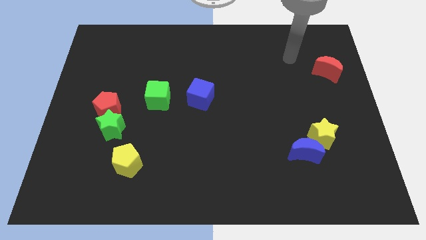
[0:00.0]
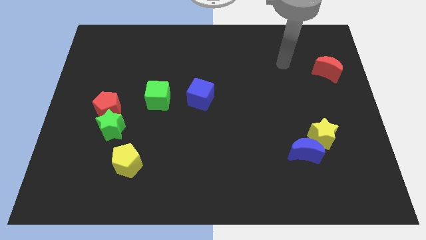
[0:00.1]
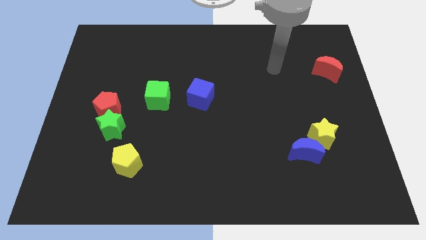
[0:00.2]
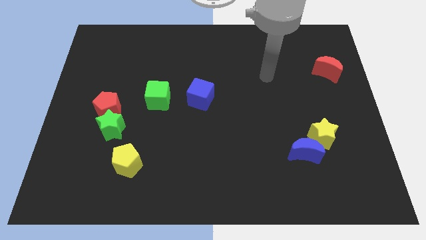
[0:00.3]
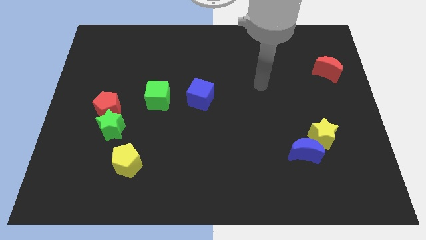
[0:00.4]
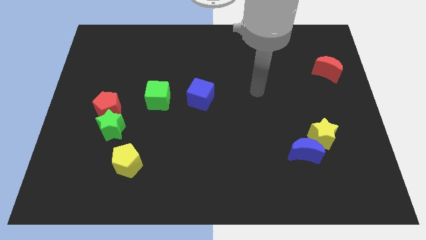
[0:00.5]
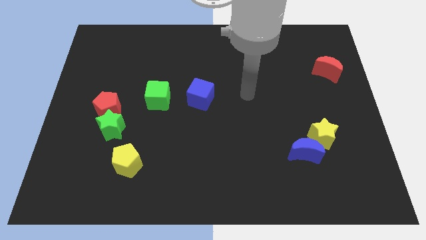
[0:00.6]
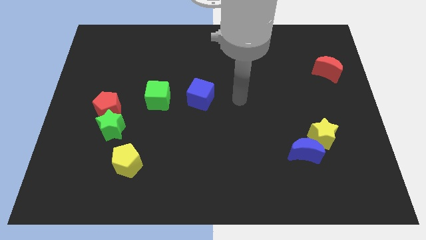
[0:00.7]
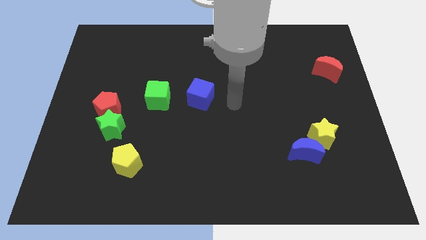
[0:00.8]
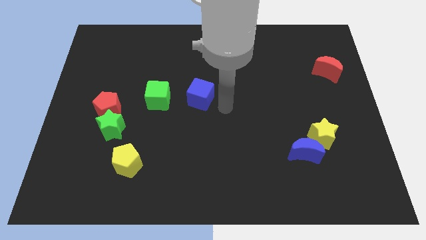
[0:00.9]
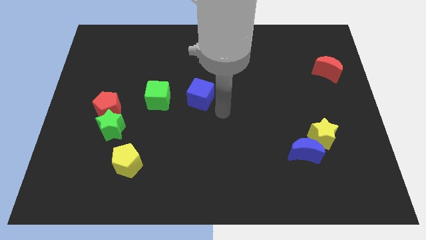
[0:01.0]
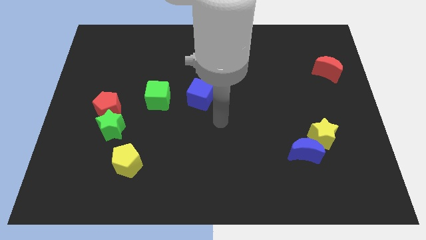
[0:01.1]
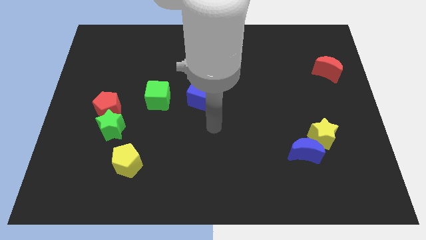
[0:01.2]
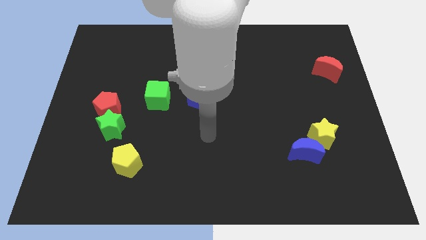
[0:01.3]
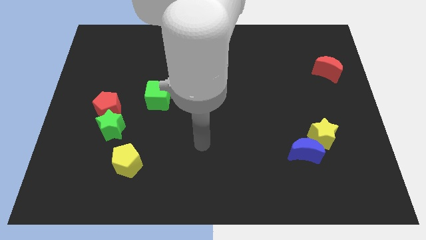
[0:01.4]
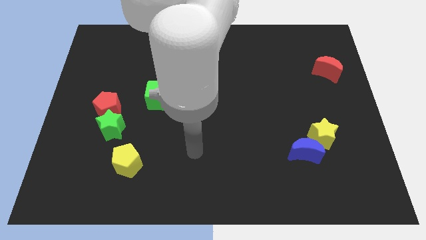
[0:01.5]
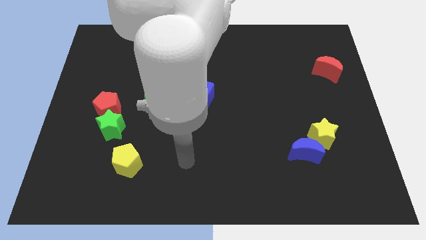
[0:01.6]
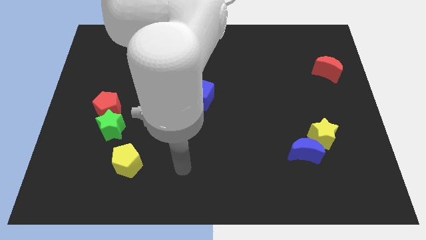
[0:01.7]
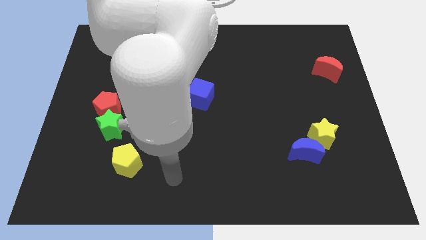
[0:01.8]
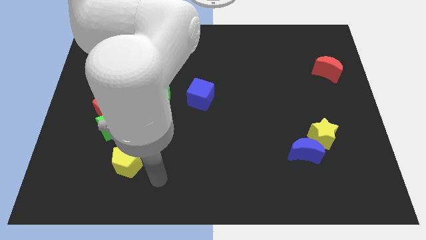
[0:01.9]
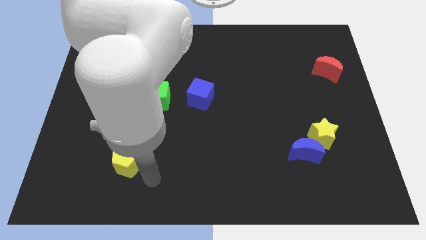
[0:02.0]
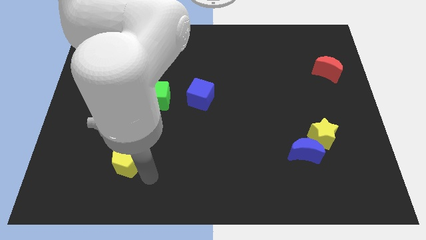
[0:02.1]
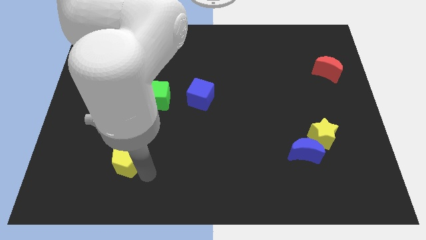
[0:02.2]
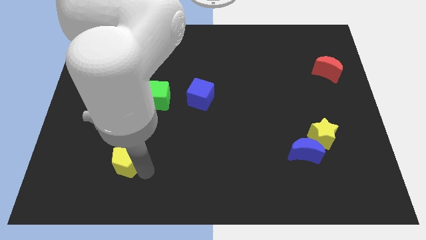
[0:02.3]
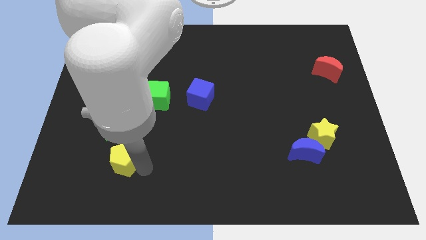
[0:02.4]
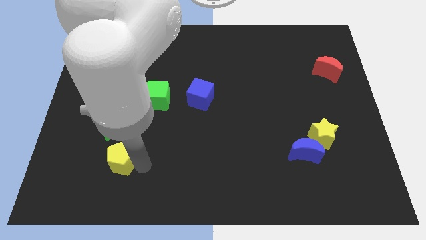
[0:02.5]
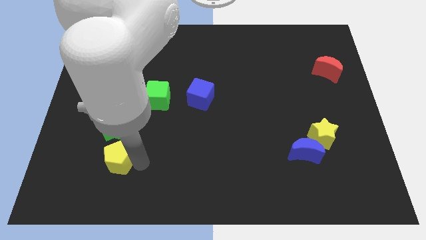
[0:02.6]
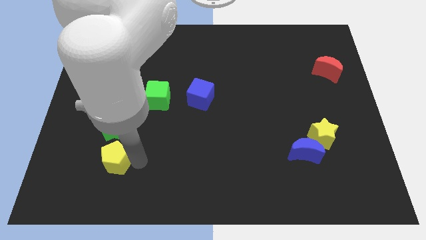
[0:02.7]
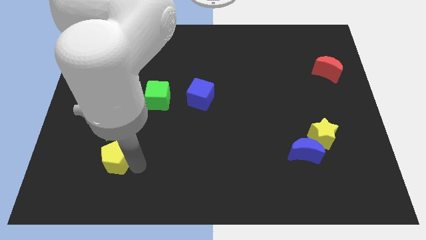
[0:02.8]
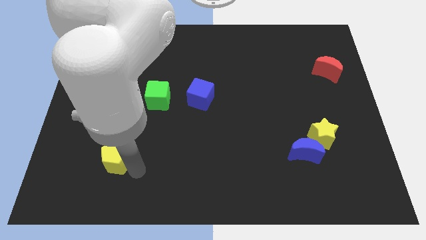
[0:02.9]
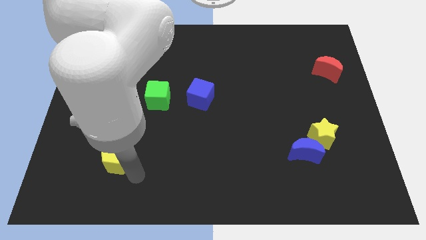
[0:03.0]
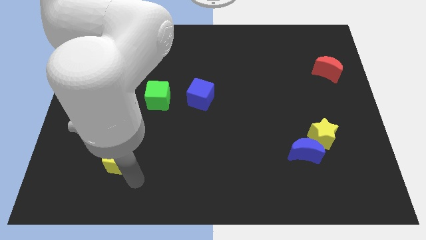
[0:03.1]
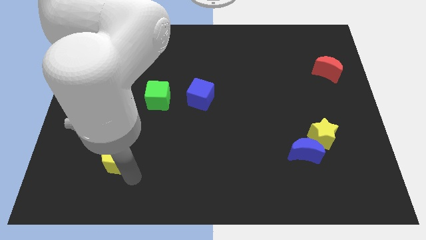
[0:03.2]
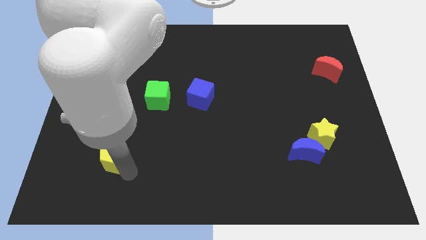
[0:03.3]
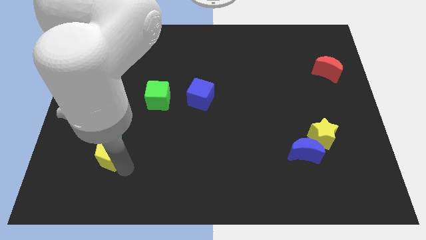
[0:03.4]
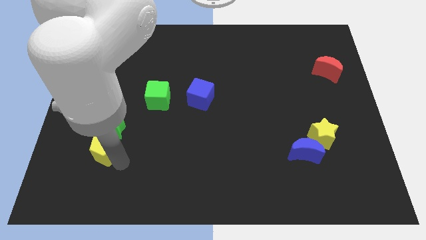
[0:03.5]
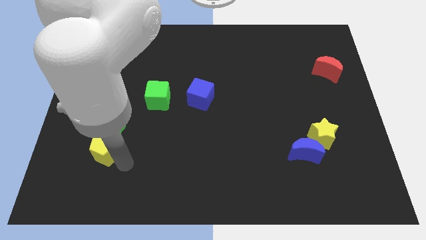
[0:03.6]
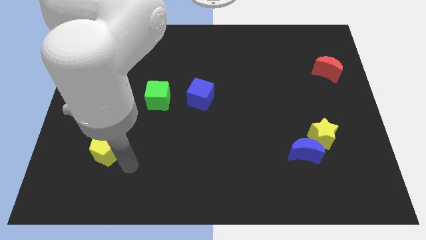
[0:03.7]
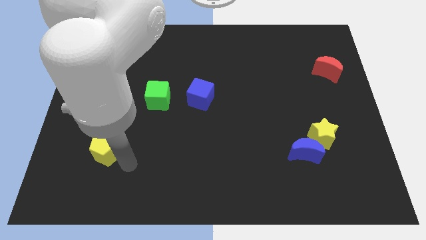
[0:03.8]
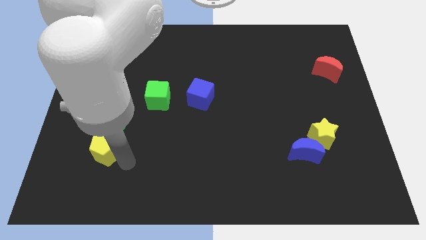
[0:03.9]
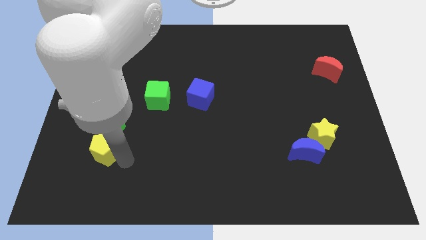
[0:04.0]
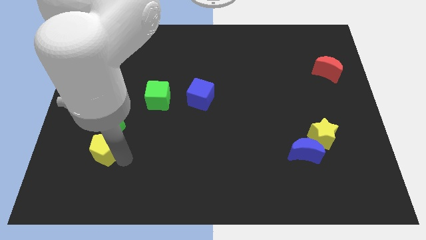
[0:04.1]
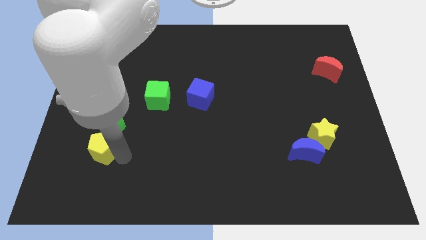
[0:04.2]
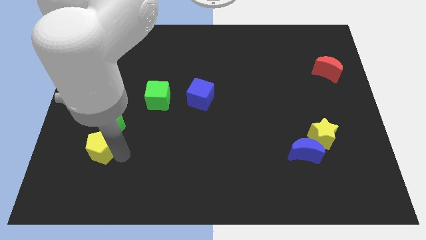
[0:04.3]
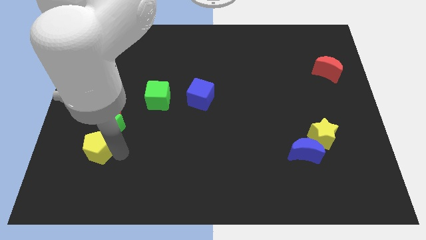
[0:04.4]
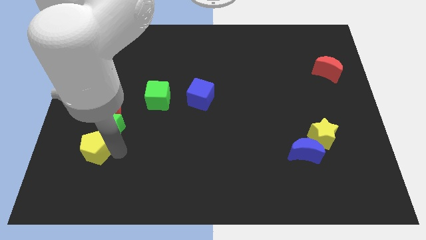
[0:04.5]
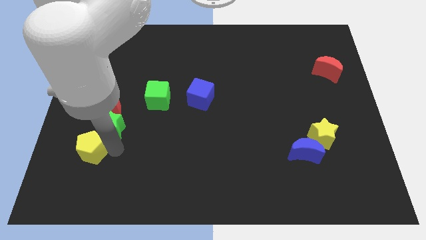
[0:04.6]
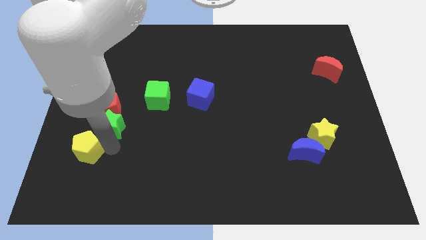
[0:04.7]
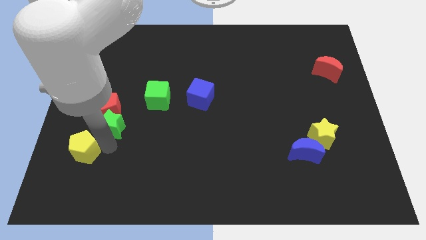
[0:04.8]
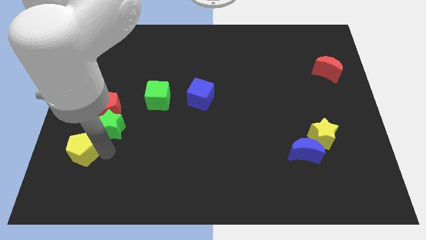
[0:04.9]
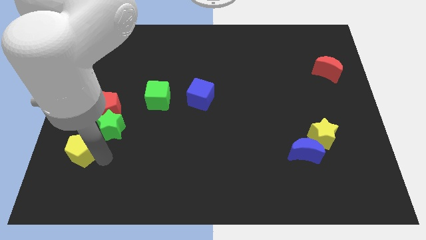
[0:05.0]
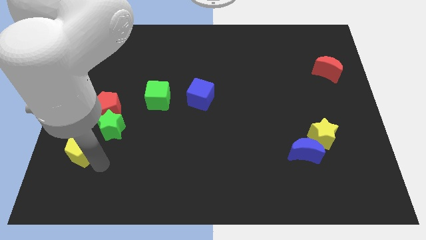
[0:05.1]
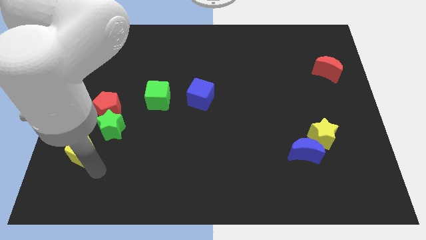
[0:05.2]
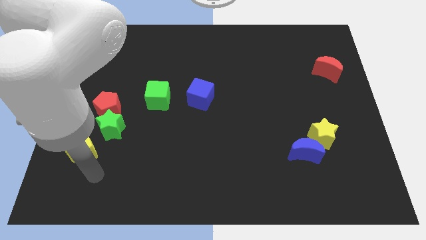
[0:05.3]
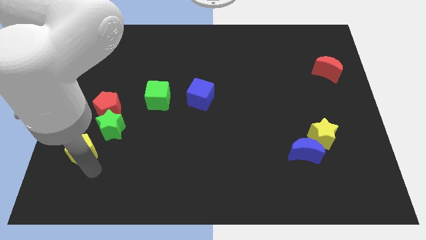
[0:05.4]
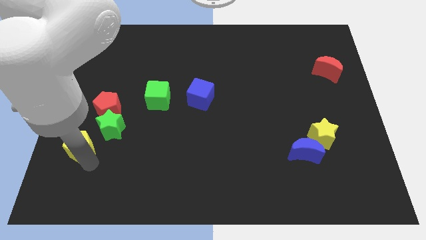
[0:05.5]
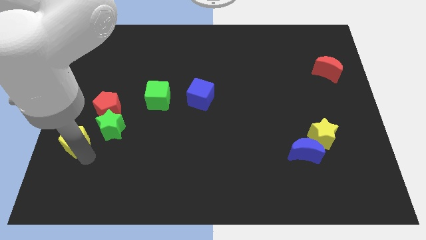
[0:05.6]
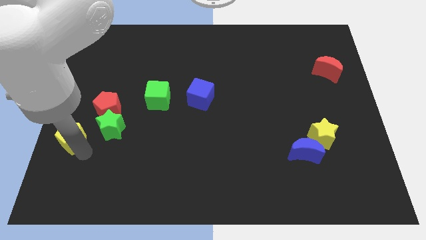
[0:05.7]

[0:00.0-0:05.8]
move the yellow pentagon to the left side of the board

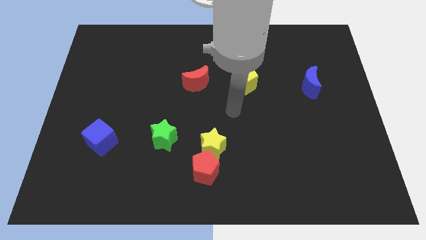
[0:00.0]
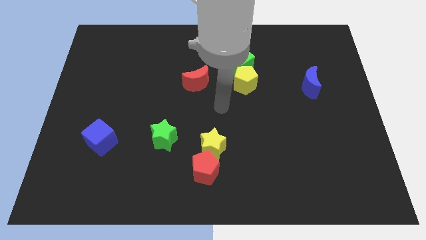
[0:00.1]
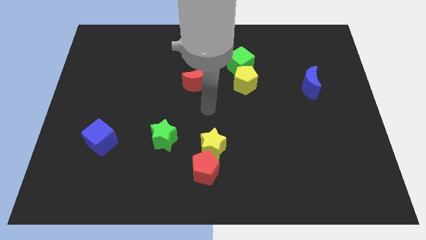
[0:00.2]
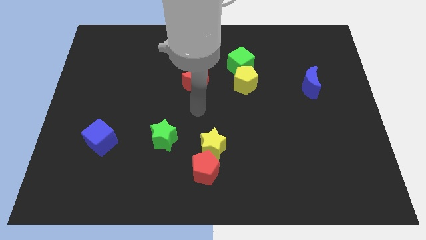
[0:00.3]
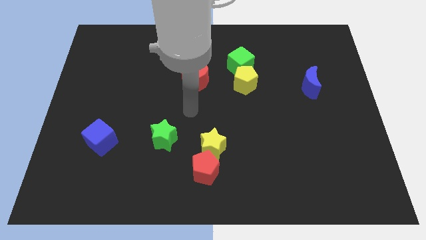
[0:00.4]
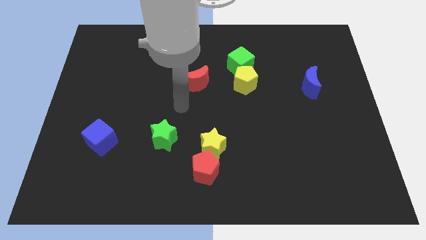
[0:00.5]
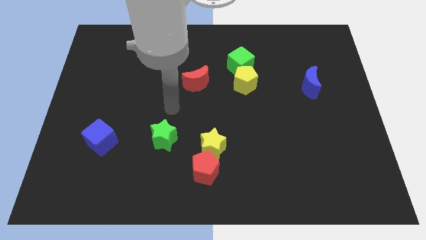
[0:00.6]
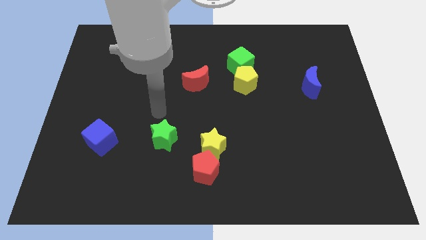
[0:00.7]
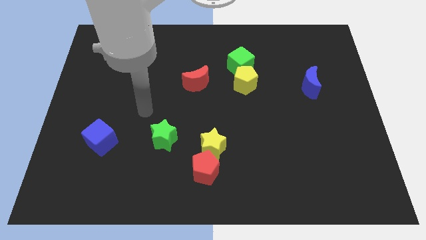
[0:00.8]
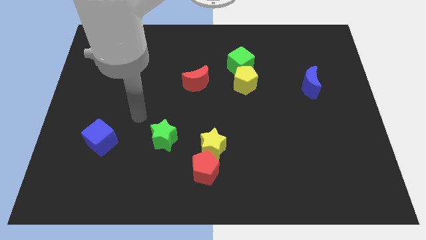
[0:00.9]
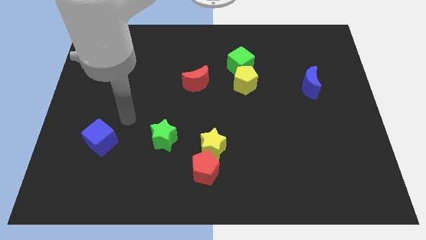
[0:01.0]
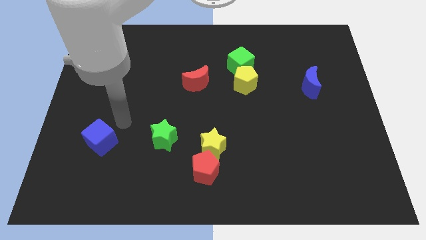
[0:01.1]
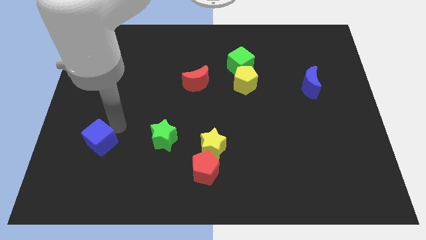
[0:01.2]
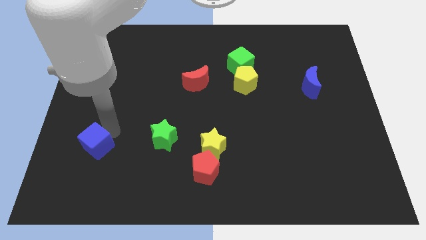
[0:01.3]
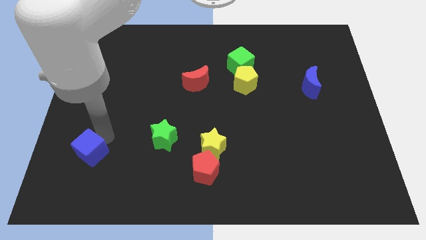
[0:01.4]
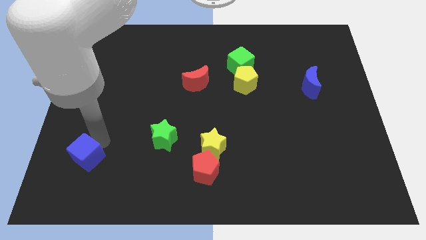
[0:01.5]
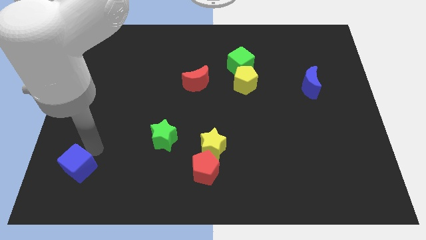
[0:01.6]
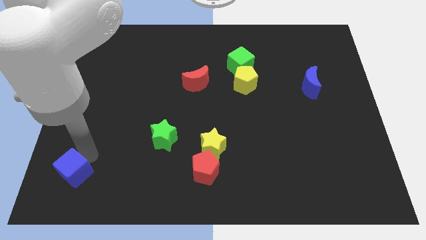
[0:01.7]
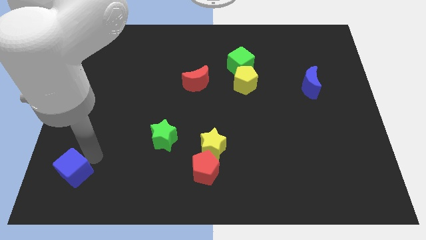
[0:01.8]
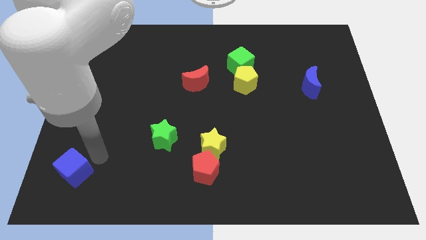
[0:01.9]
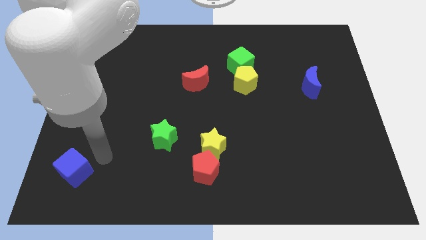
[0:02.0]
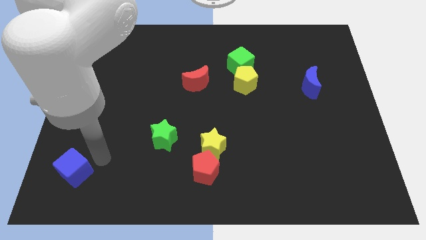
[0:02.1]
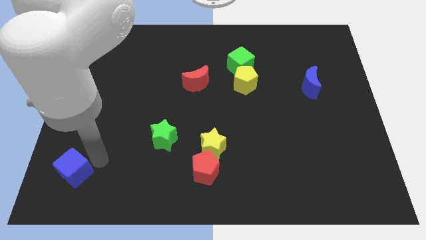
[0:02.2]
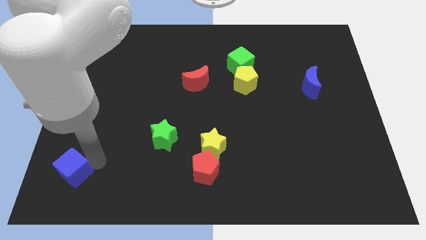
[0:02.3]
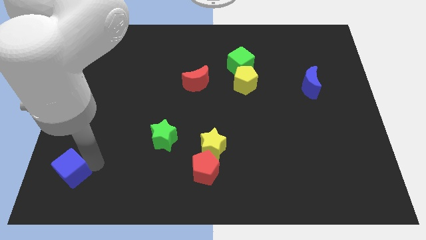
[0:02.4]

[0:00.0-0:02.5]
slide the blue cube to the bottom left corner
